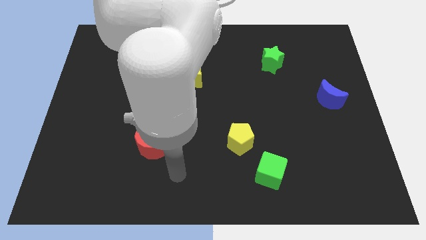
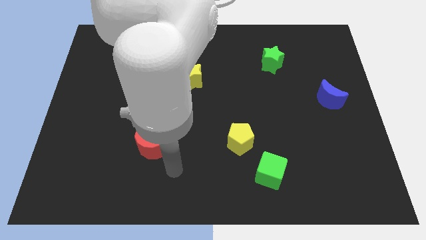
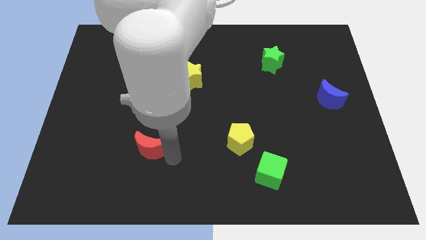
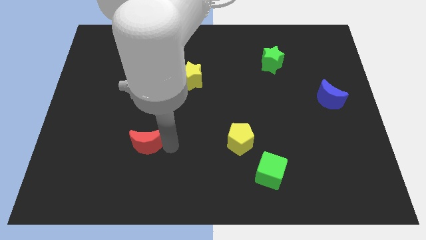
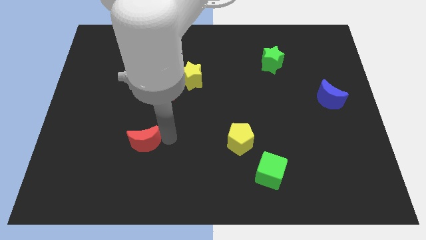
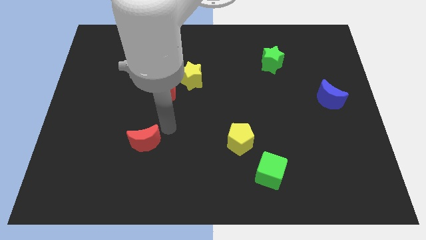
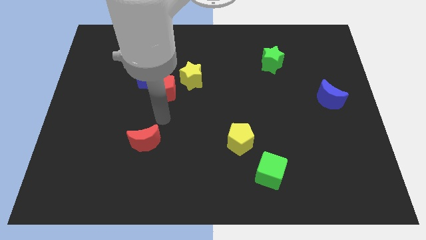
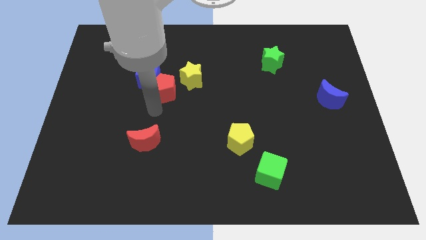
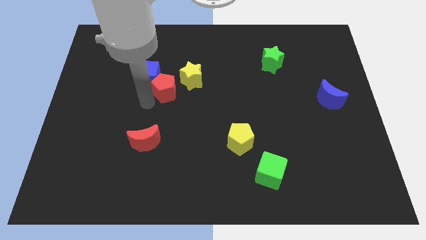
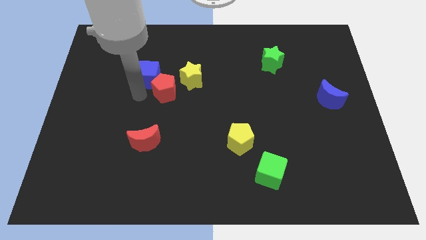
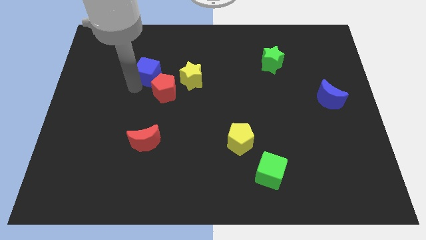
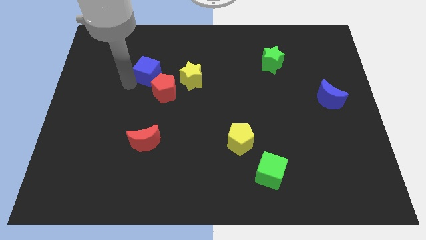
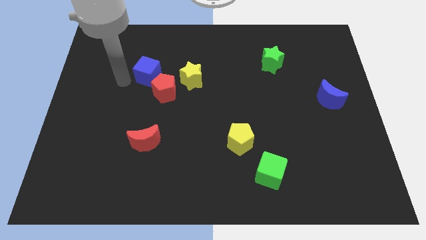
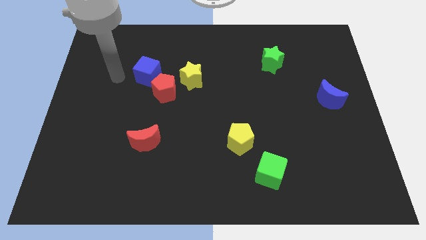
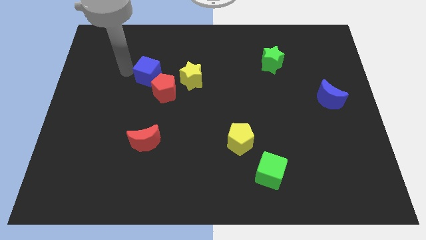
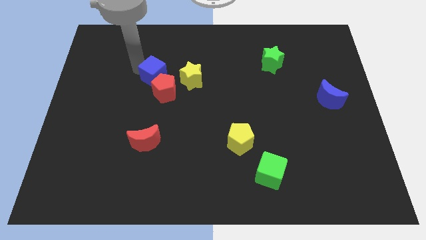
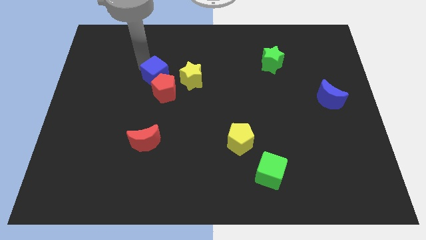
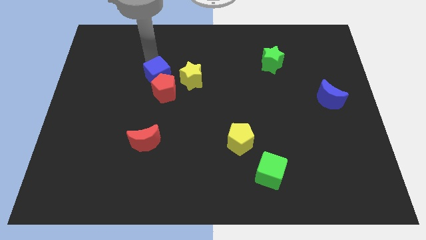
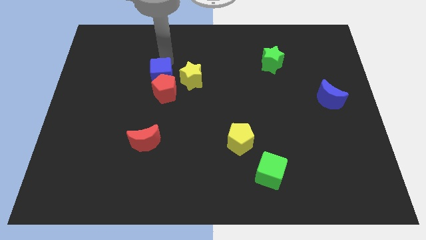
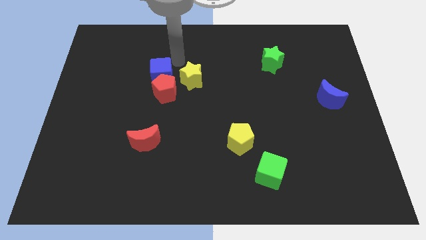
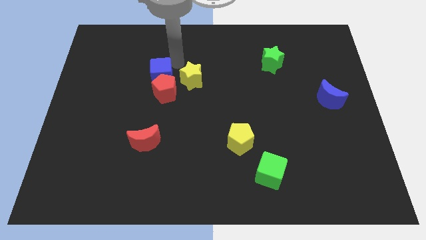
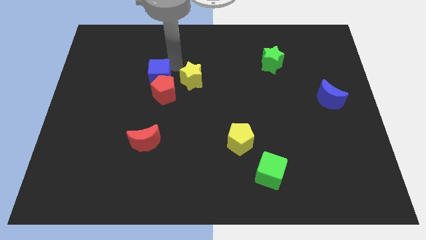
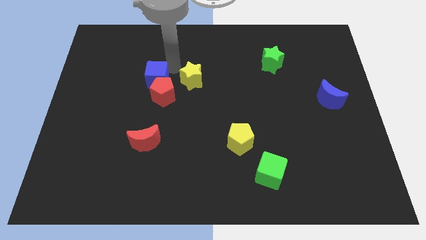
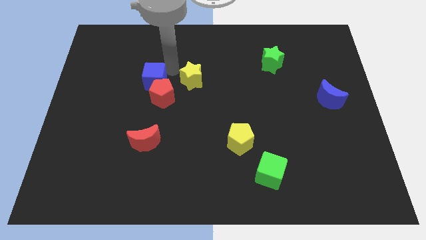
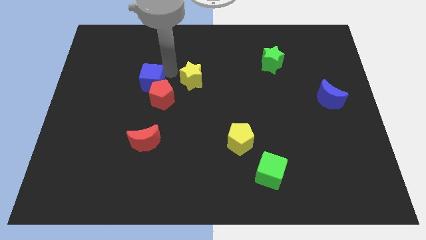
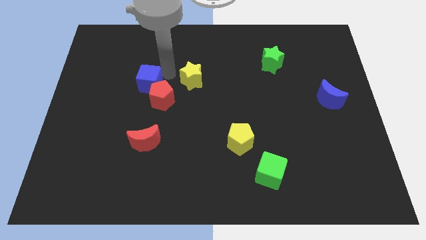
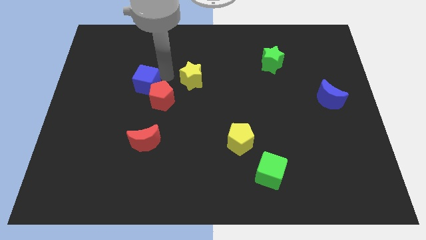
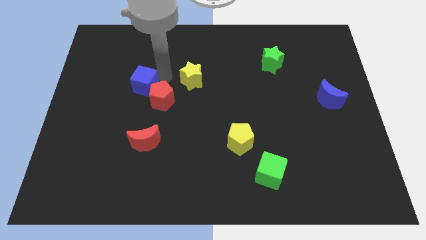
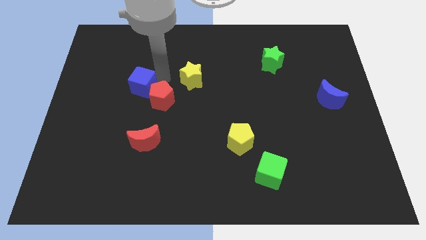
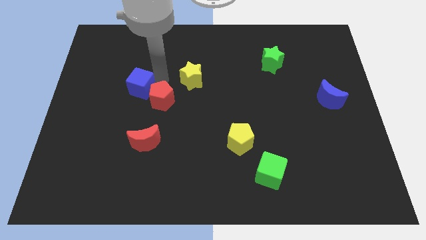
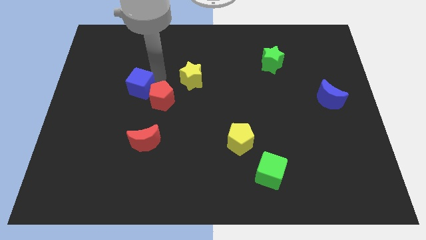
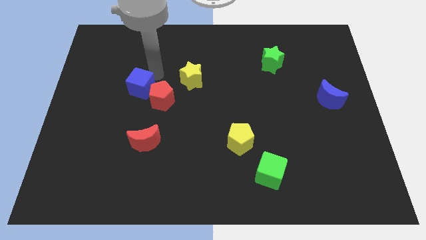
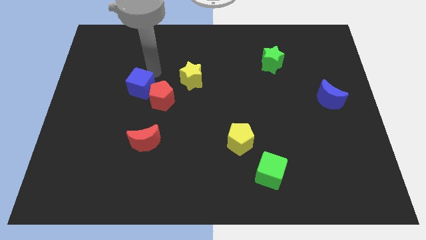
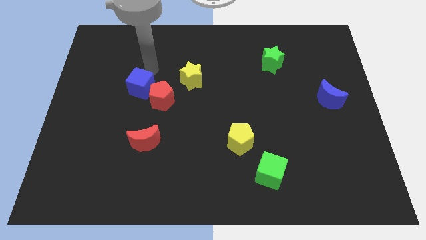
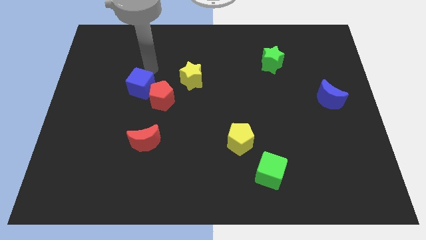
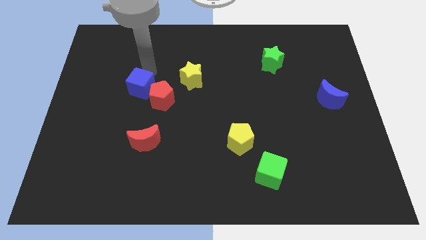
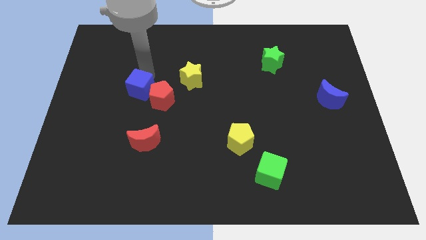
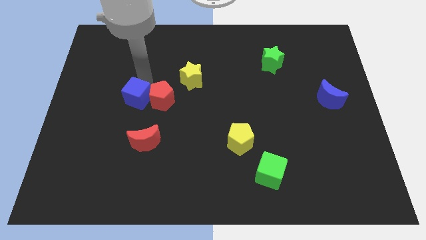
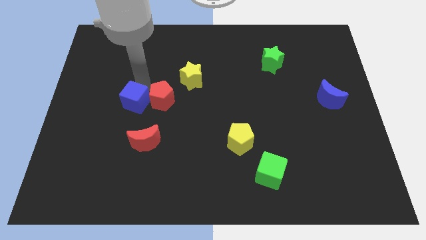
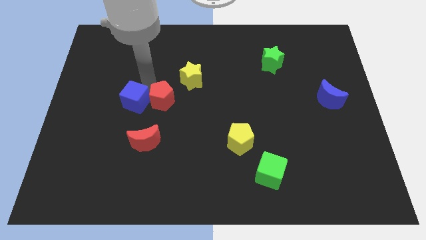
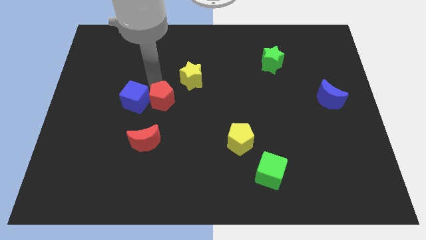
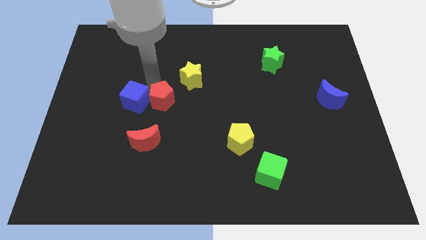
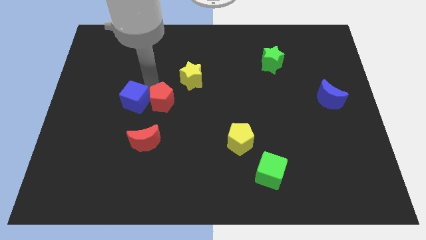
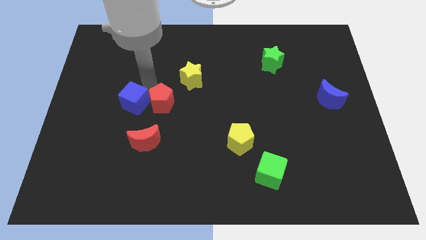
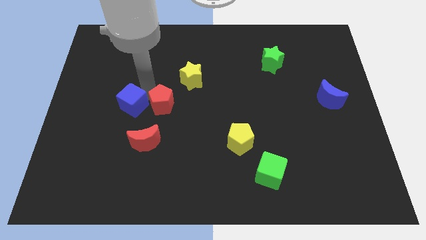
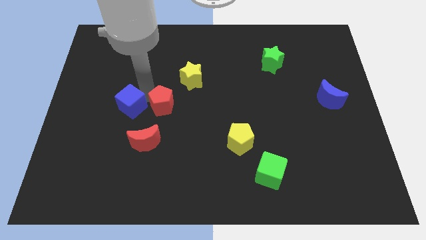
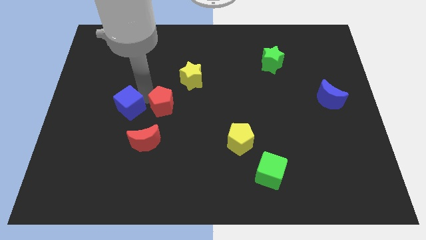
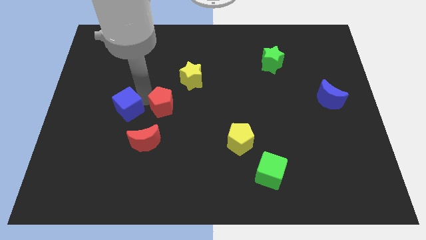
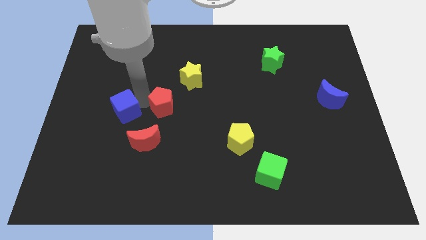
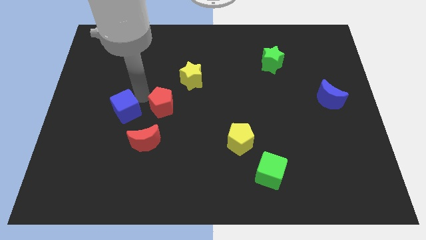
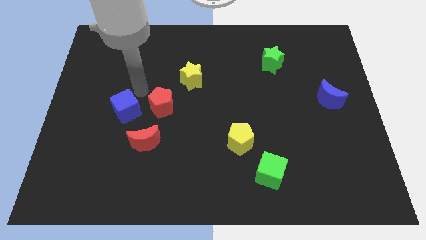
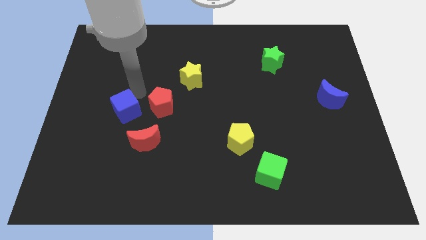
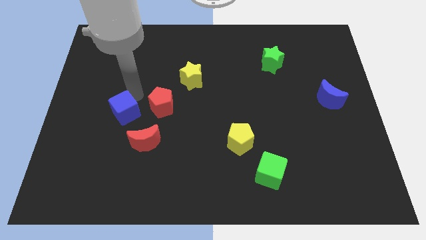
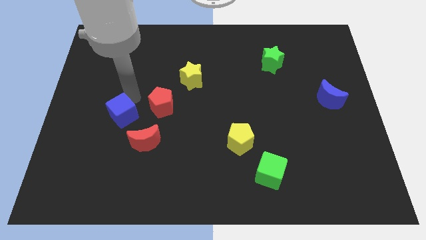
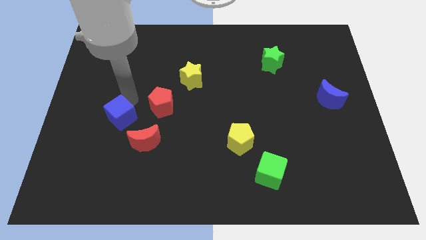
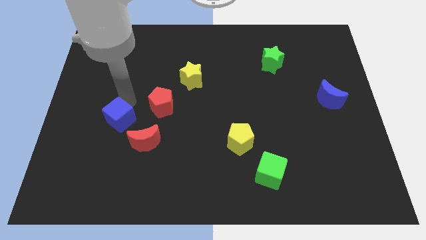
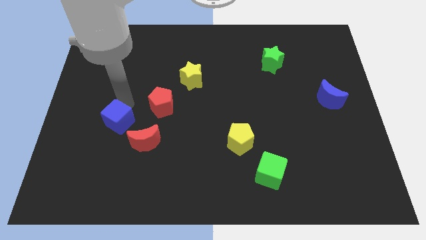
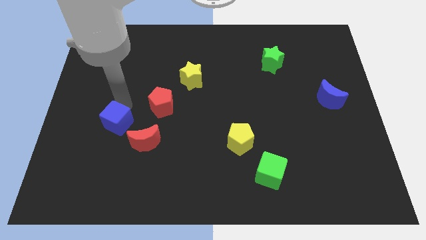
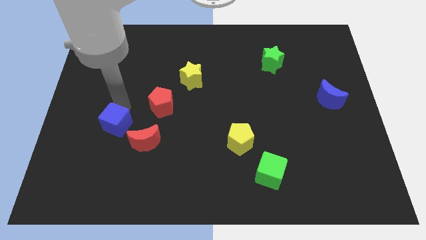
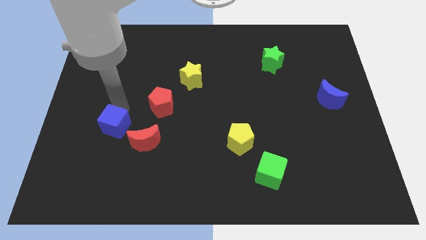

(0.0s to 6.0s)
slide the blue cube left of the red moon

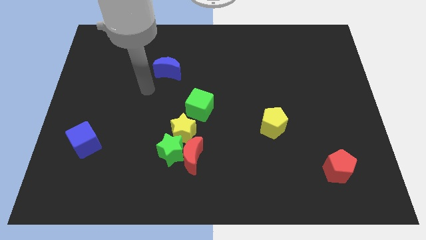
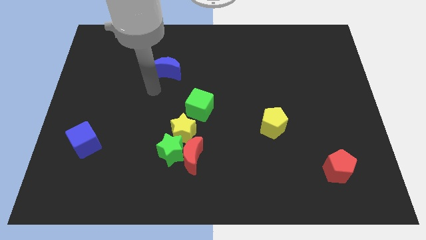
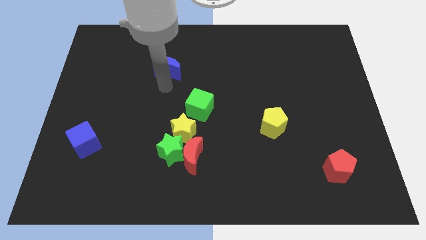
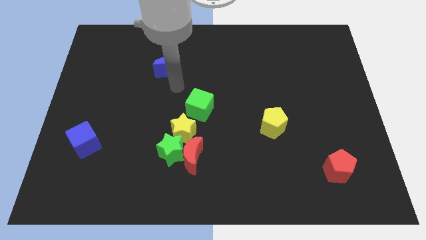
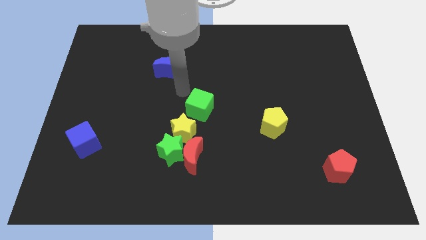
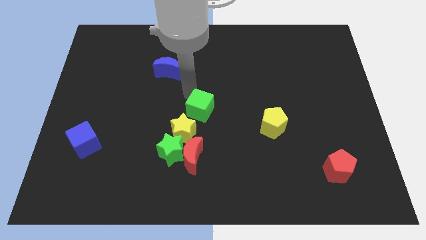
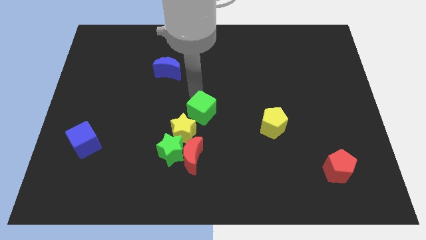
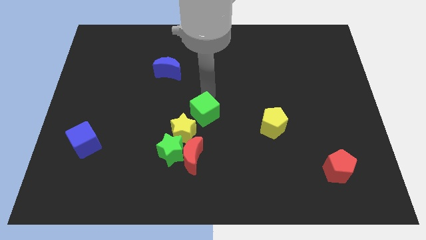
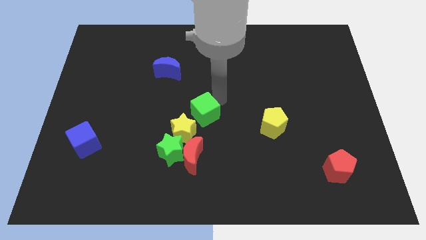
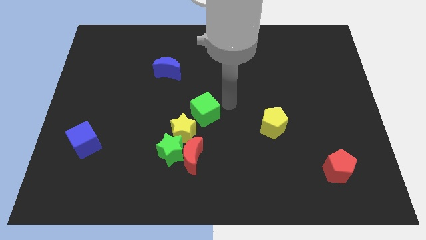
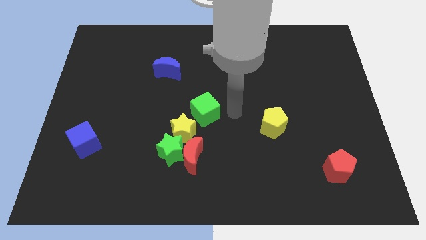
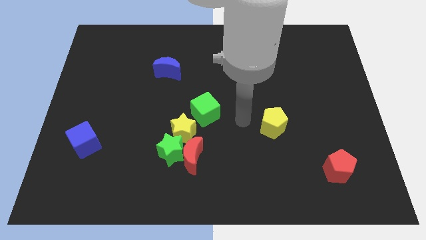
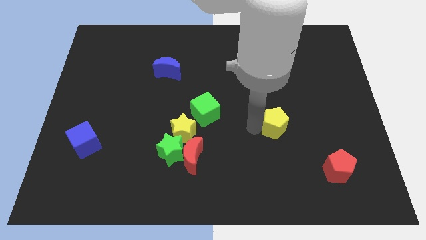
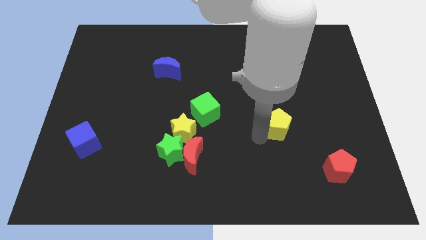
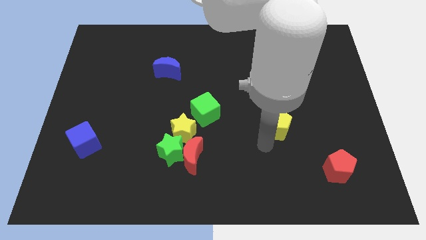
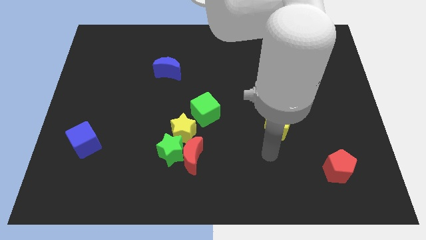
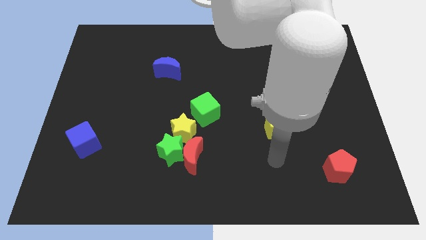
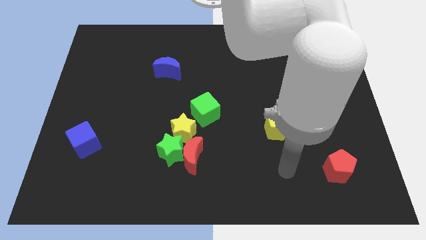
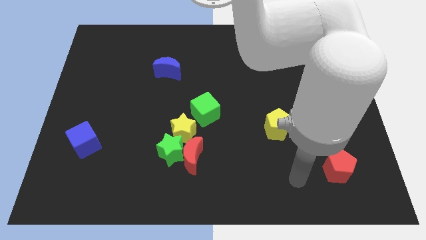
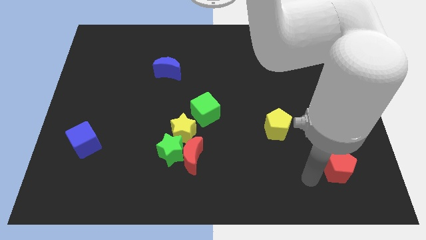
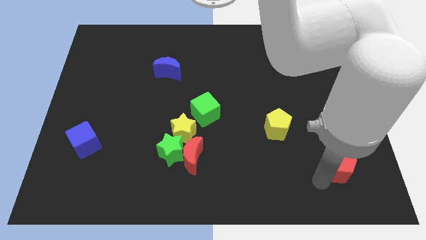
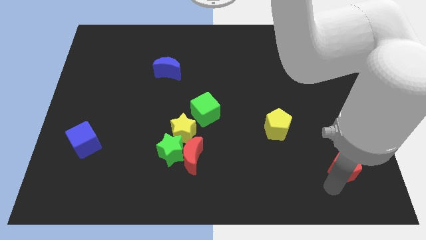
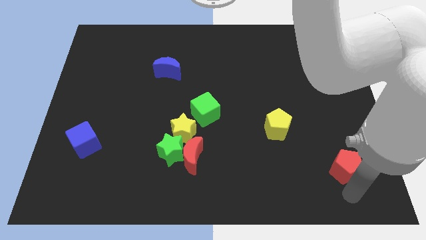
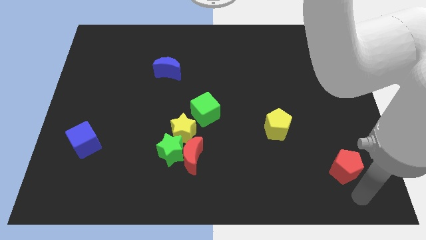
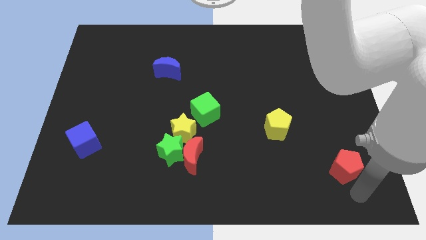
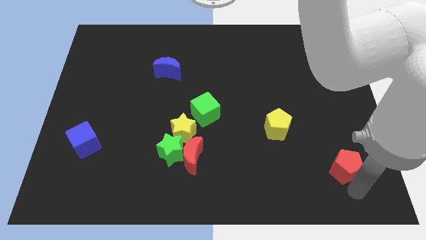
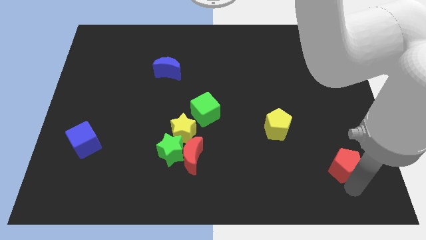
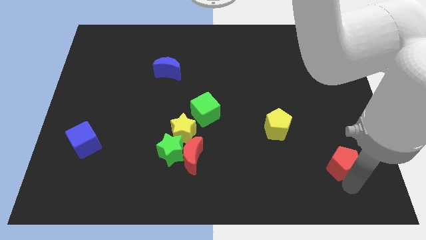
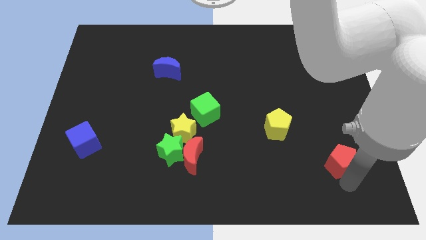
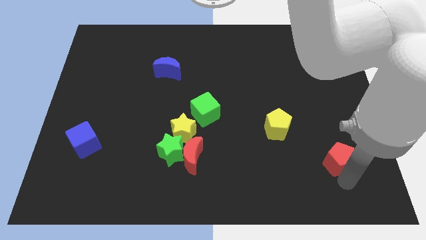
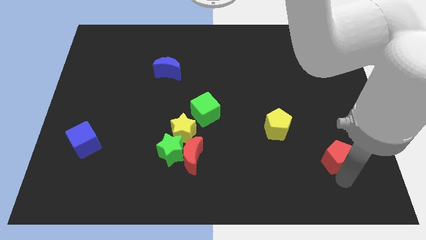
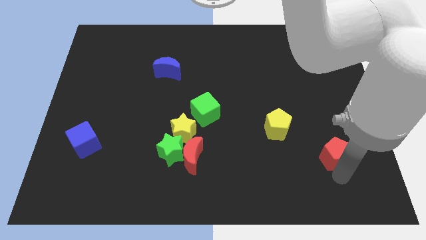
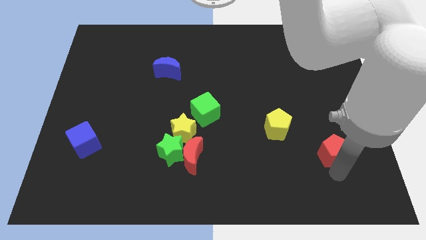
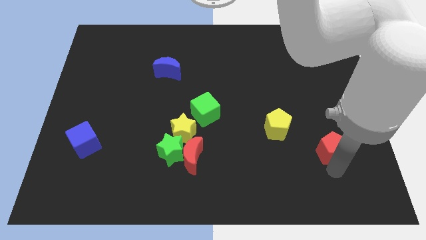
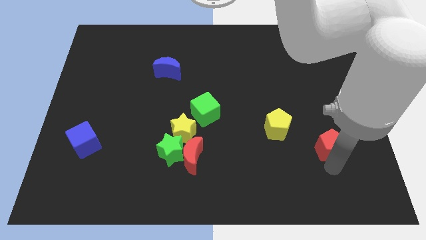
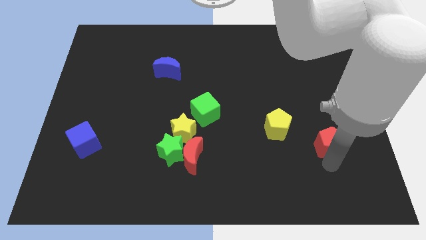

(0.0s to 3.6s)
put the red pentagon to the right of the yellow pentagon
